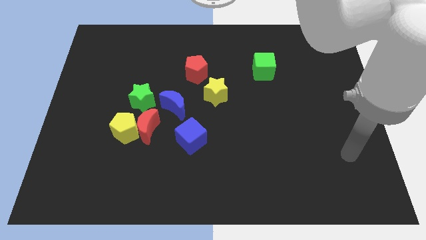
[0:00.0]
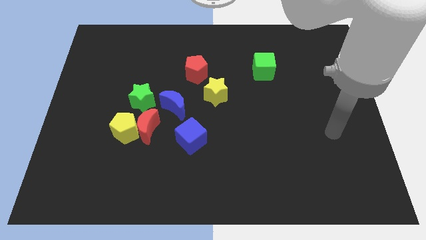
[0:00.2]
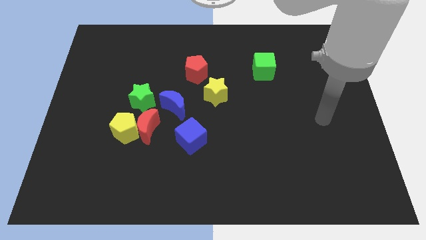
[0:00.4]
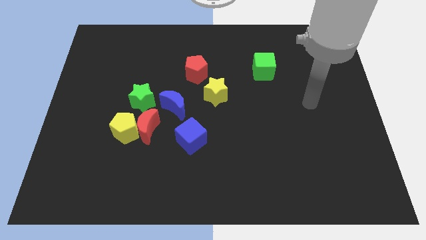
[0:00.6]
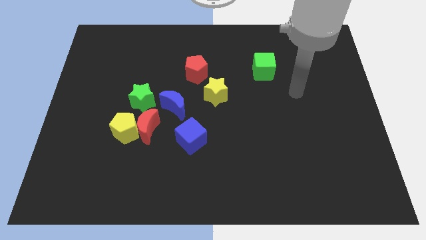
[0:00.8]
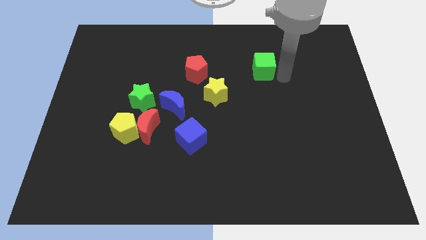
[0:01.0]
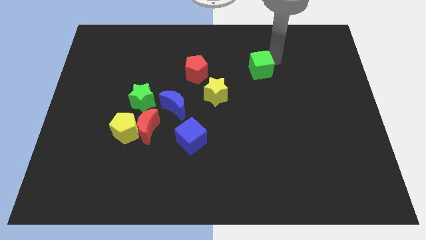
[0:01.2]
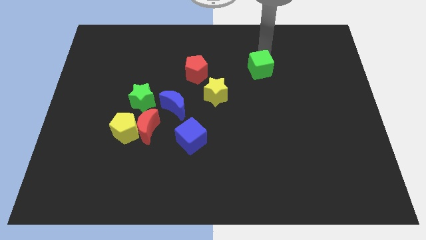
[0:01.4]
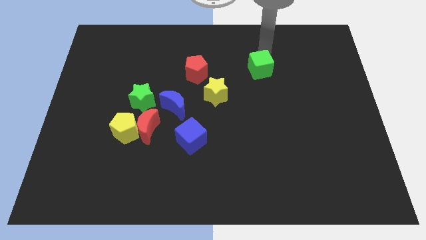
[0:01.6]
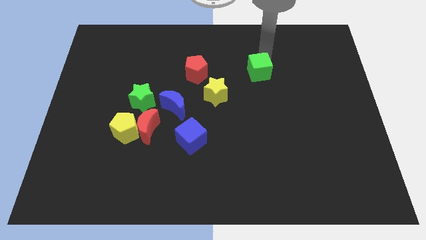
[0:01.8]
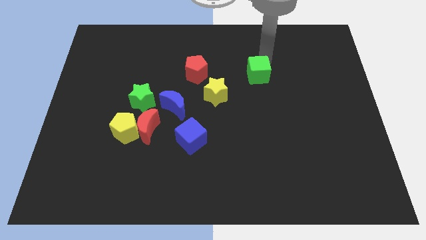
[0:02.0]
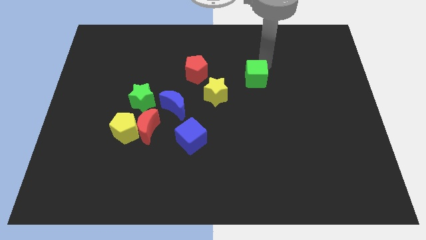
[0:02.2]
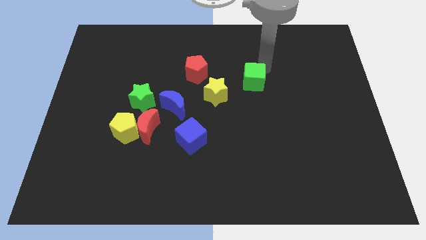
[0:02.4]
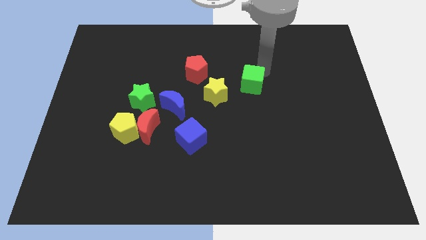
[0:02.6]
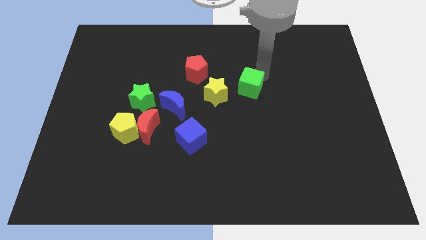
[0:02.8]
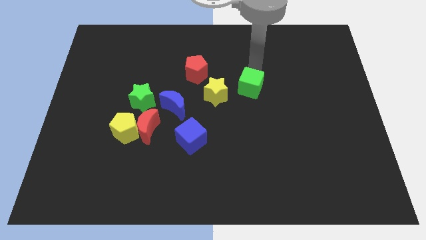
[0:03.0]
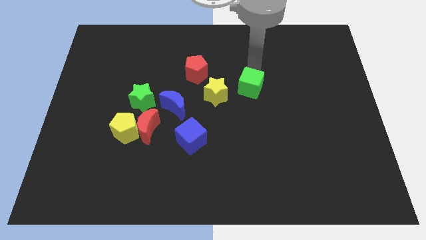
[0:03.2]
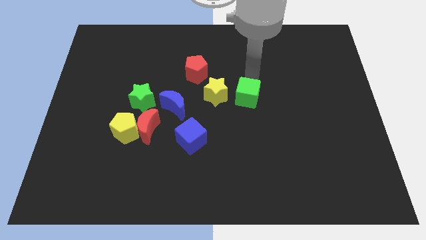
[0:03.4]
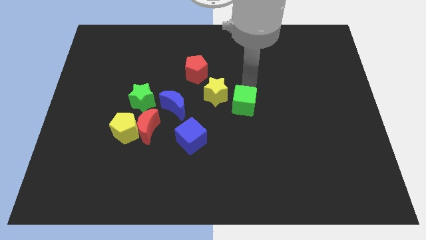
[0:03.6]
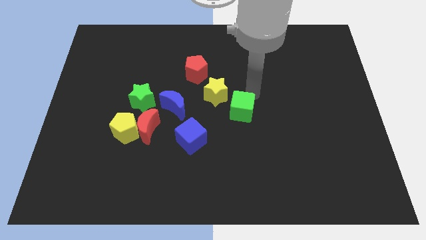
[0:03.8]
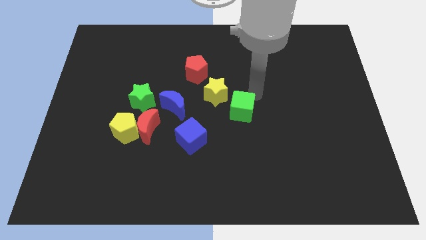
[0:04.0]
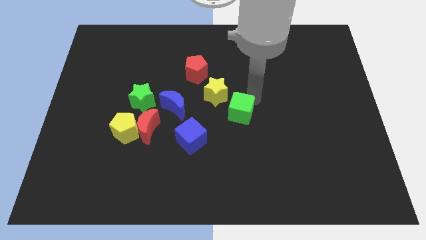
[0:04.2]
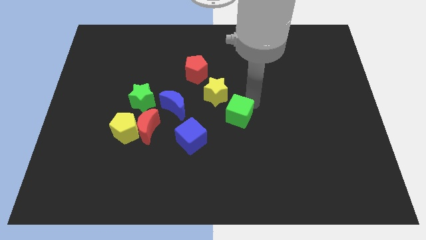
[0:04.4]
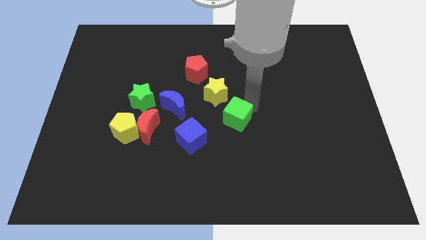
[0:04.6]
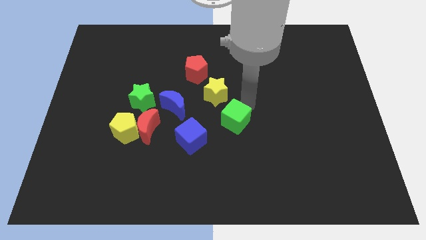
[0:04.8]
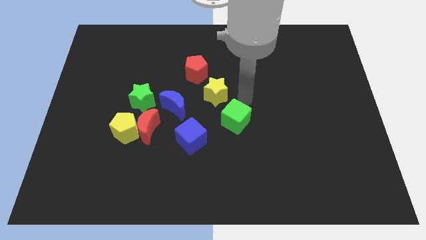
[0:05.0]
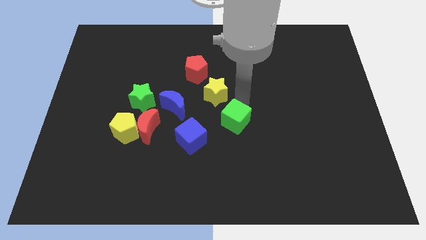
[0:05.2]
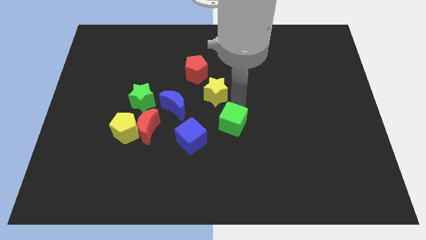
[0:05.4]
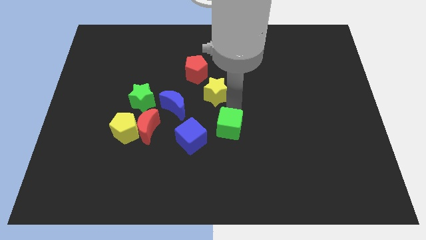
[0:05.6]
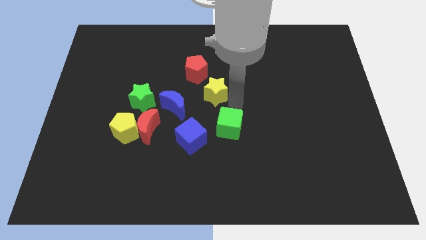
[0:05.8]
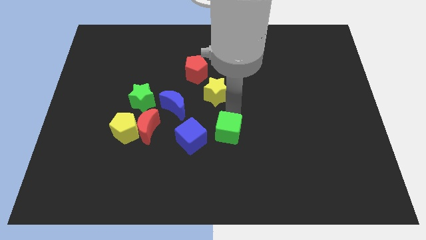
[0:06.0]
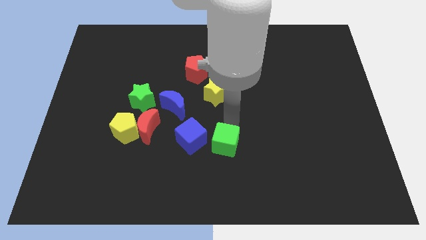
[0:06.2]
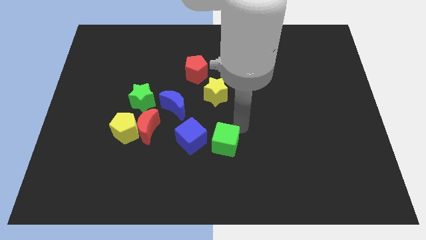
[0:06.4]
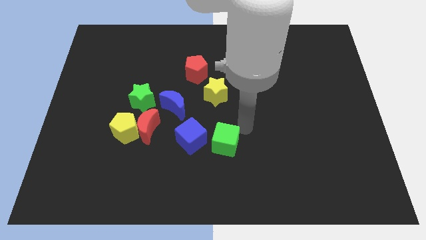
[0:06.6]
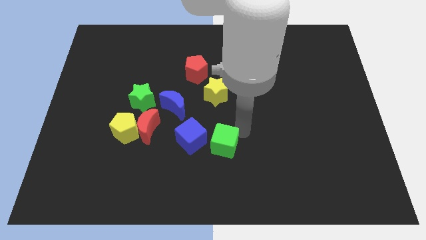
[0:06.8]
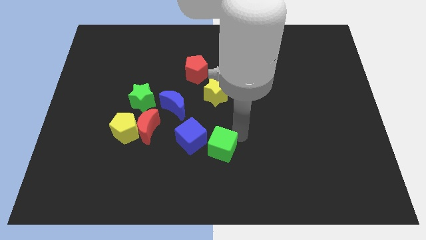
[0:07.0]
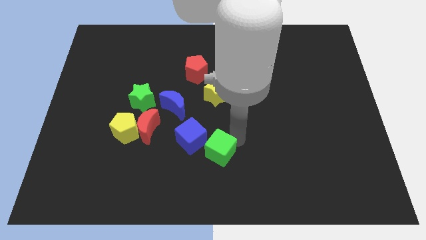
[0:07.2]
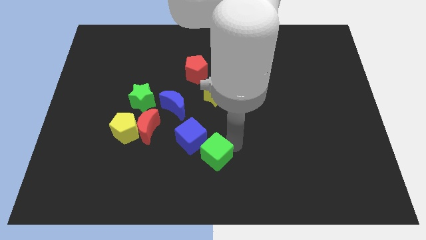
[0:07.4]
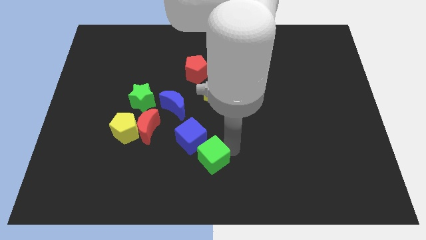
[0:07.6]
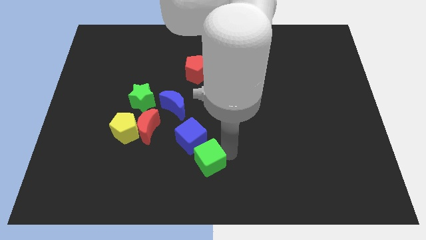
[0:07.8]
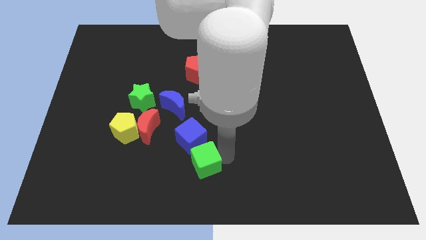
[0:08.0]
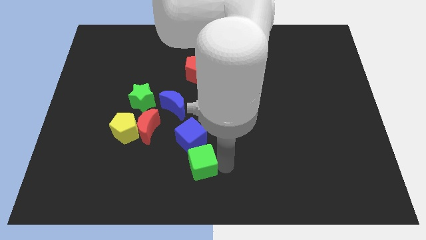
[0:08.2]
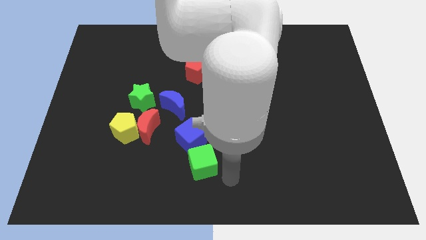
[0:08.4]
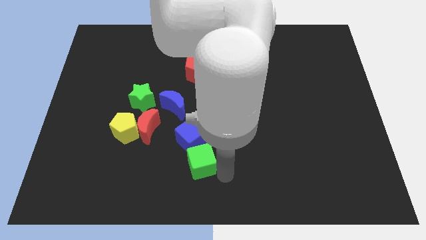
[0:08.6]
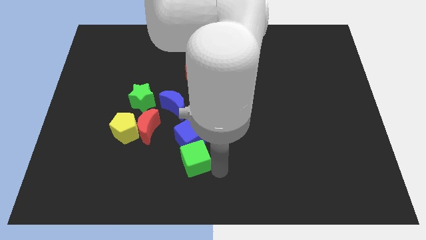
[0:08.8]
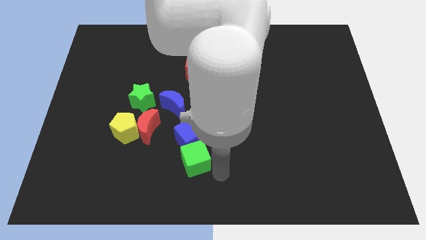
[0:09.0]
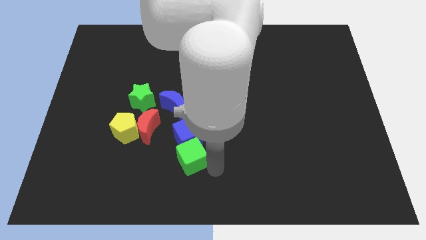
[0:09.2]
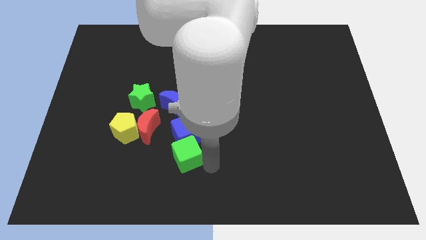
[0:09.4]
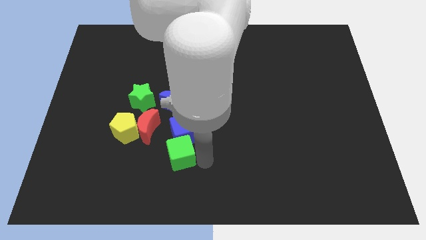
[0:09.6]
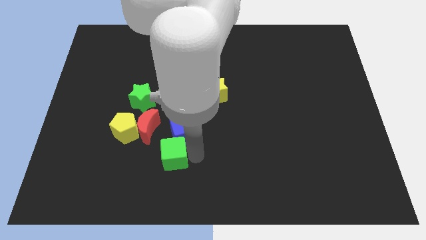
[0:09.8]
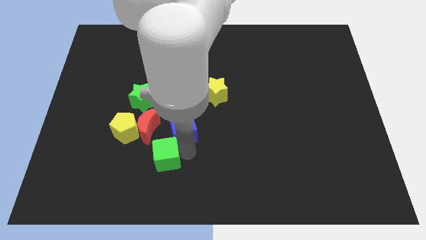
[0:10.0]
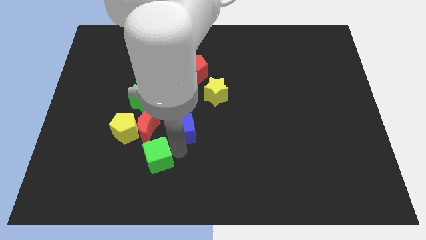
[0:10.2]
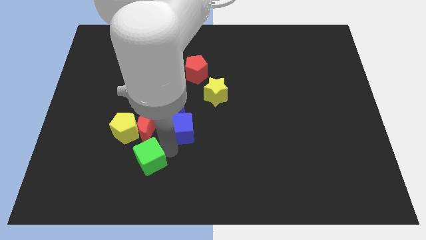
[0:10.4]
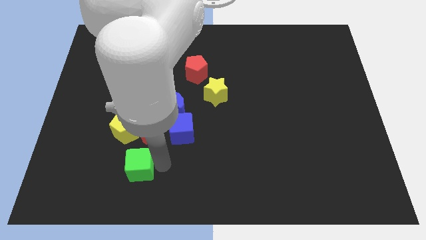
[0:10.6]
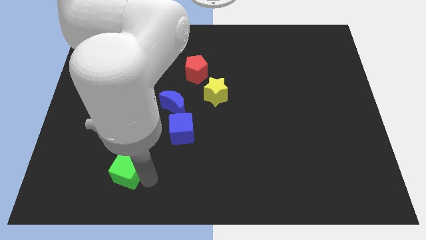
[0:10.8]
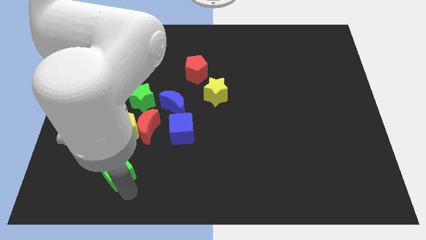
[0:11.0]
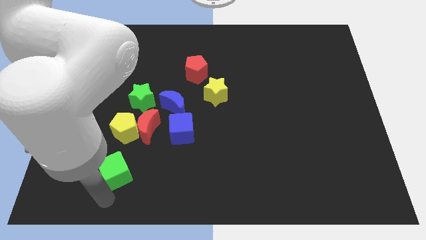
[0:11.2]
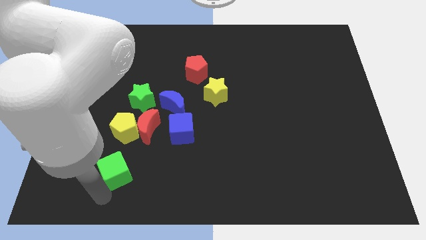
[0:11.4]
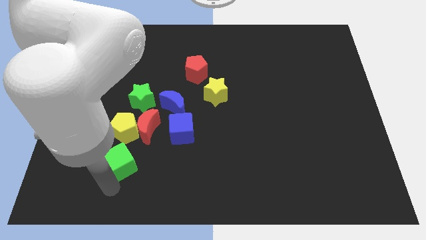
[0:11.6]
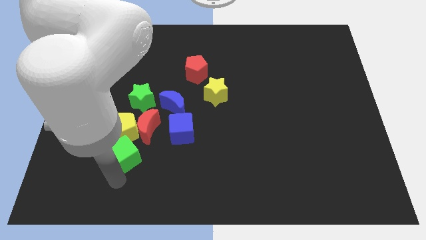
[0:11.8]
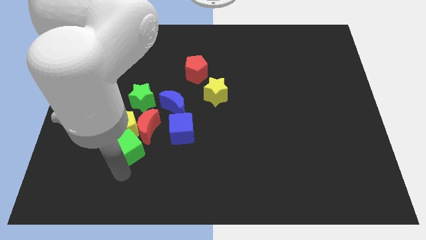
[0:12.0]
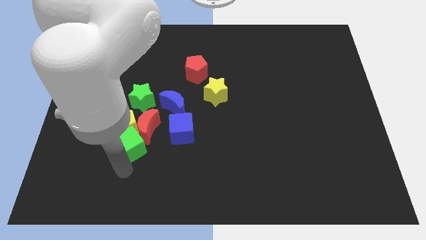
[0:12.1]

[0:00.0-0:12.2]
slide the green cube to the red moon

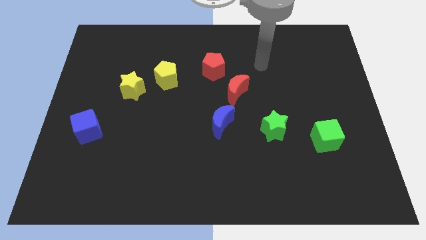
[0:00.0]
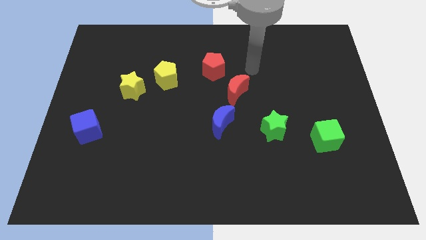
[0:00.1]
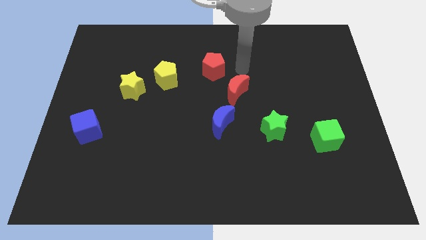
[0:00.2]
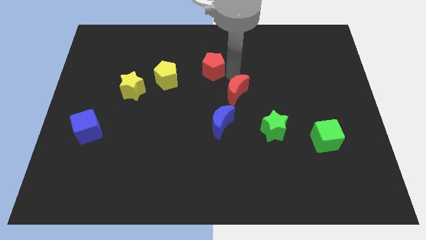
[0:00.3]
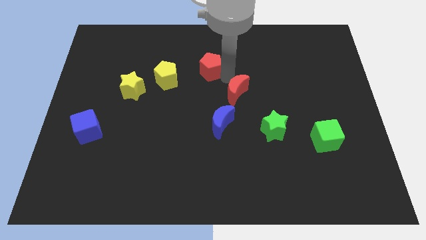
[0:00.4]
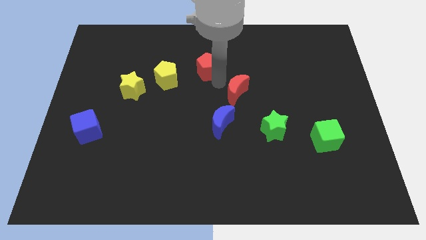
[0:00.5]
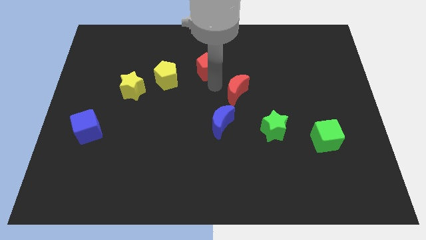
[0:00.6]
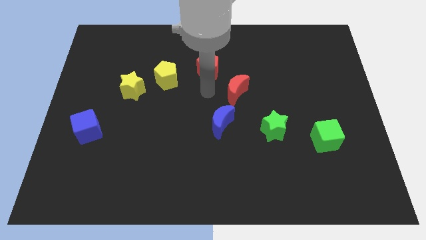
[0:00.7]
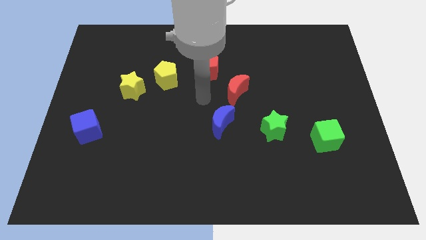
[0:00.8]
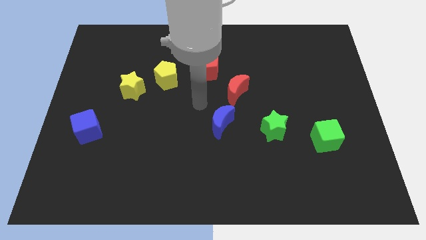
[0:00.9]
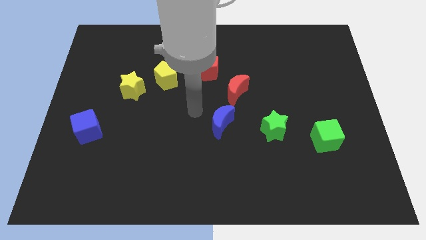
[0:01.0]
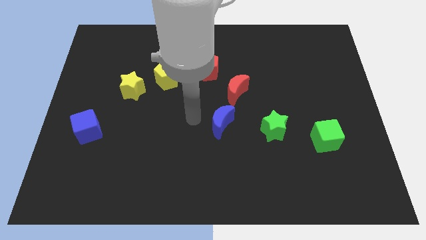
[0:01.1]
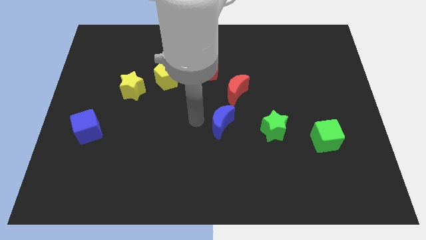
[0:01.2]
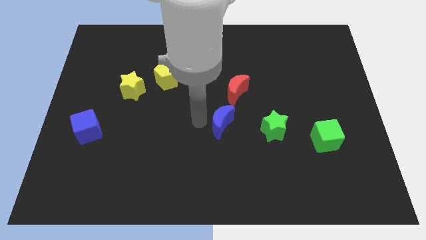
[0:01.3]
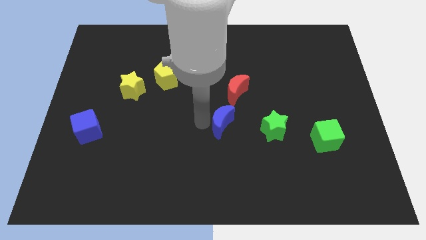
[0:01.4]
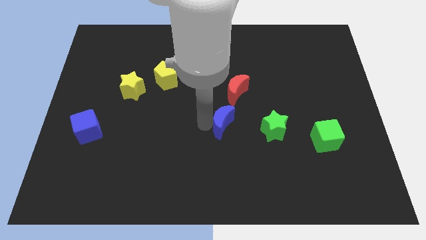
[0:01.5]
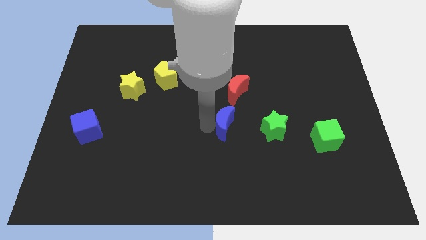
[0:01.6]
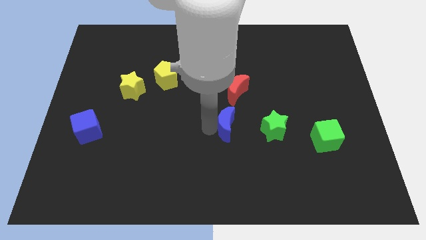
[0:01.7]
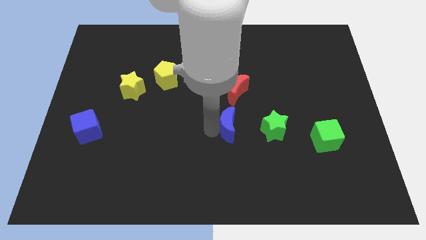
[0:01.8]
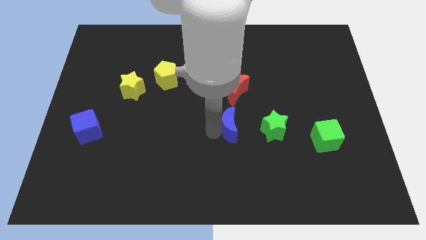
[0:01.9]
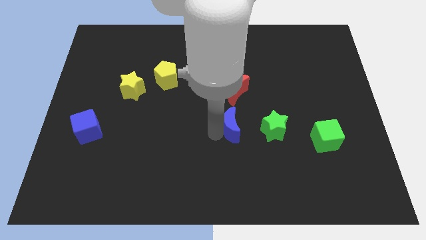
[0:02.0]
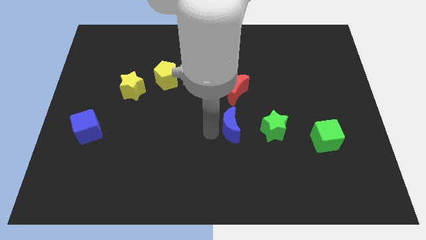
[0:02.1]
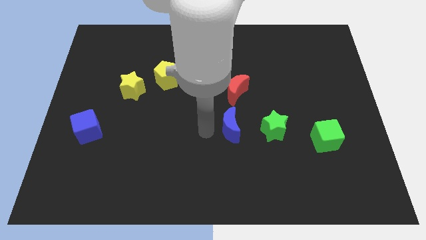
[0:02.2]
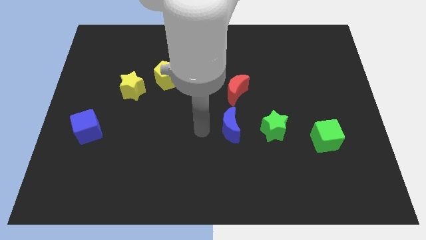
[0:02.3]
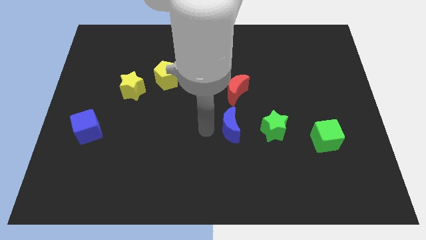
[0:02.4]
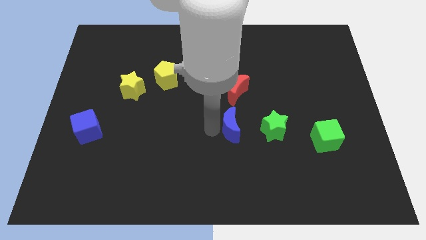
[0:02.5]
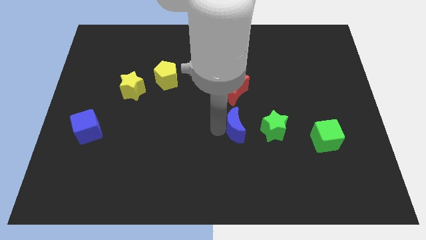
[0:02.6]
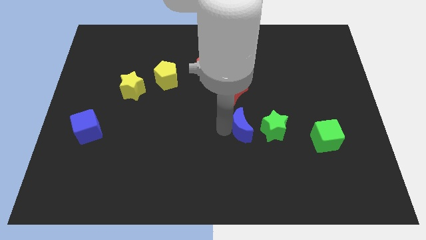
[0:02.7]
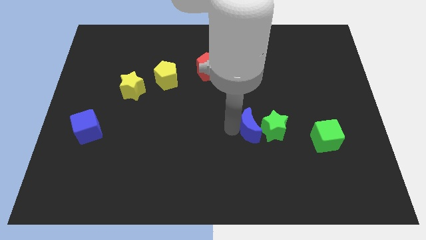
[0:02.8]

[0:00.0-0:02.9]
slide the blue moon next to the green star
